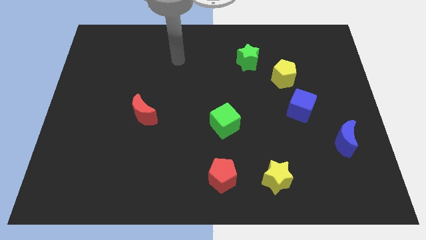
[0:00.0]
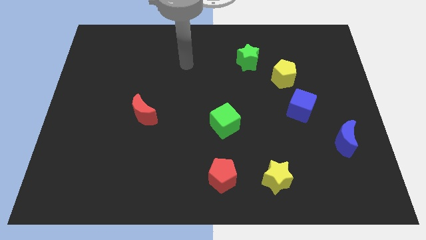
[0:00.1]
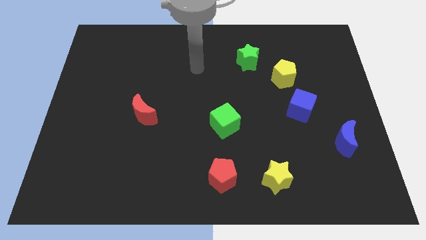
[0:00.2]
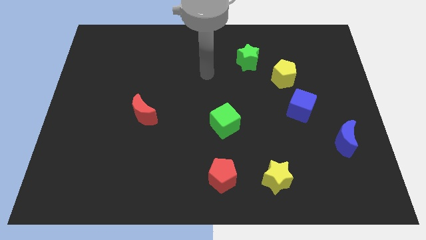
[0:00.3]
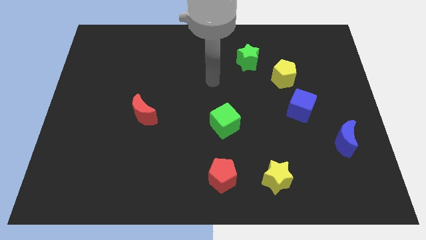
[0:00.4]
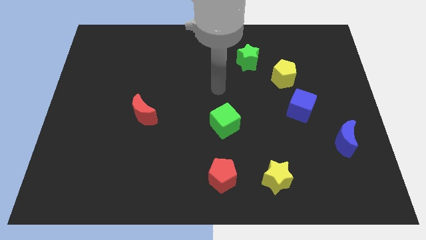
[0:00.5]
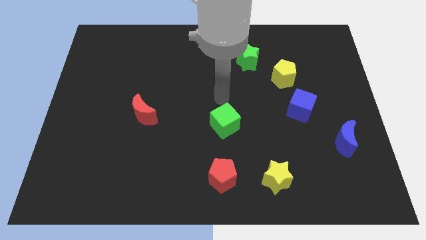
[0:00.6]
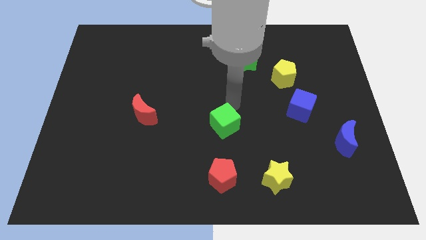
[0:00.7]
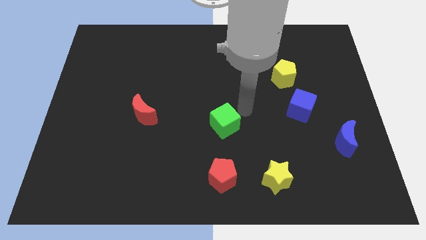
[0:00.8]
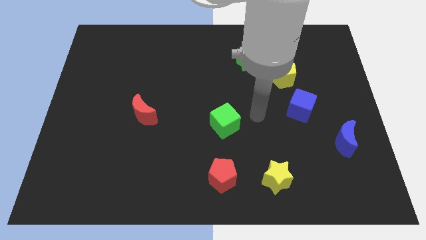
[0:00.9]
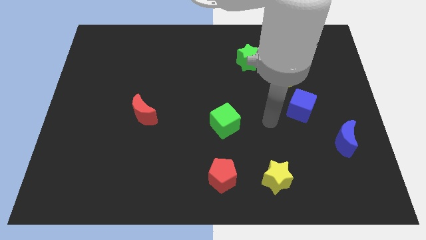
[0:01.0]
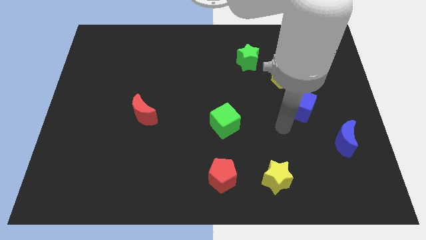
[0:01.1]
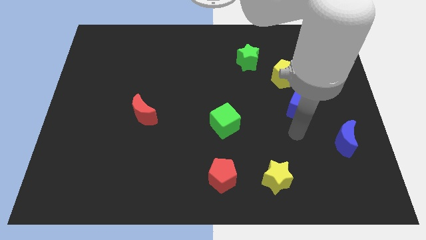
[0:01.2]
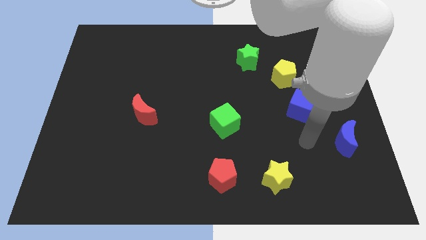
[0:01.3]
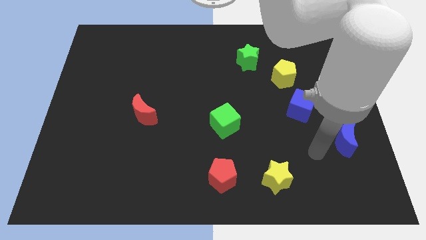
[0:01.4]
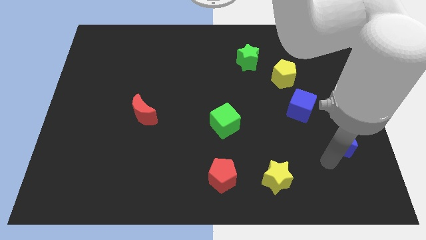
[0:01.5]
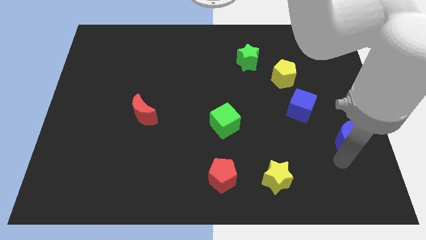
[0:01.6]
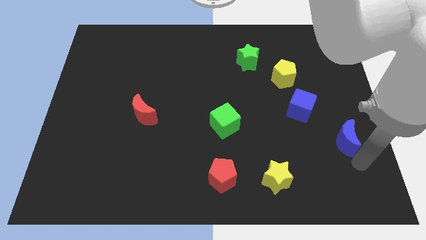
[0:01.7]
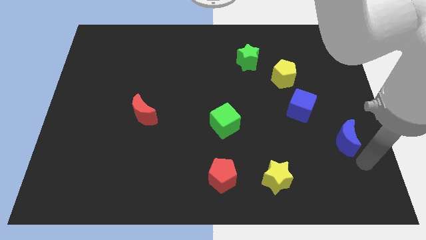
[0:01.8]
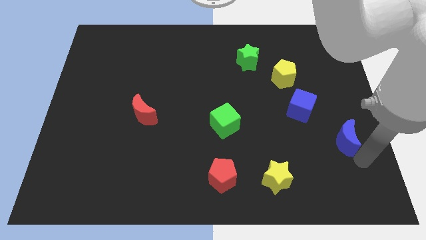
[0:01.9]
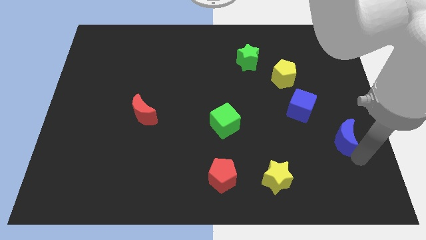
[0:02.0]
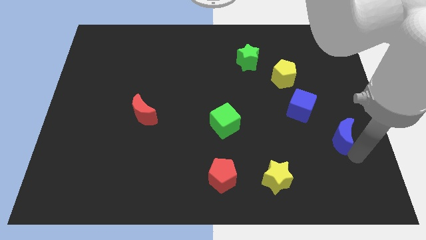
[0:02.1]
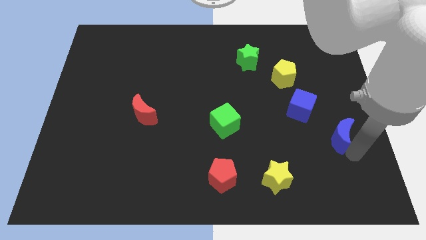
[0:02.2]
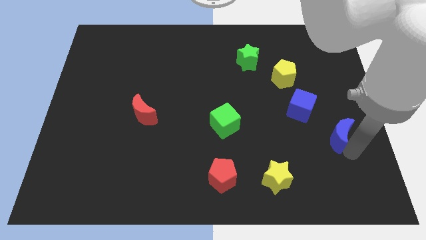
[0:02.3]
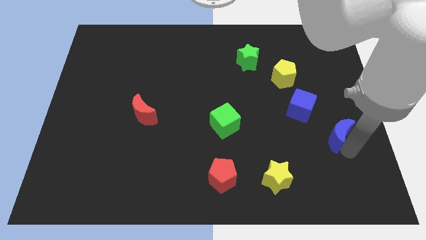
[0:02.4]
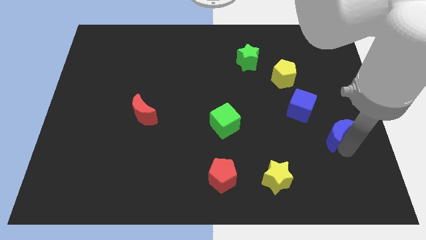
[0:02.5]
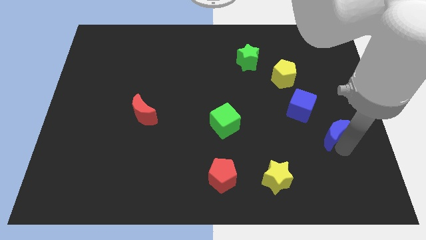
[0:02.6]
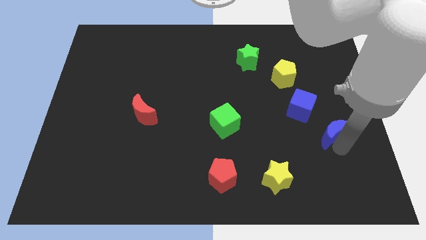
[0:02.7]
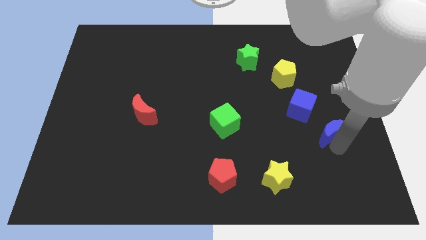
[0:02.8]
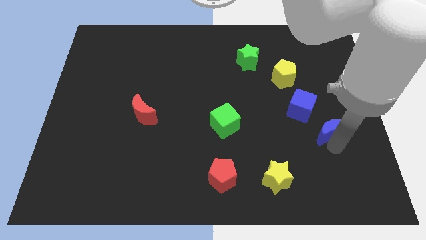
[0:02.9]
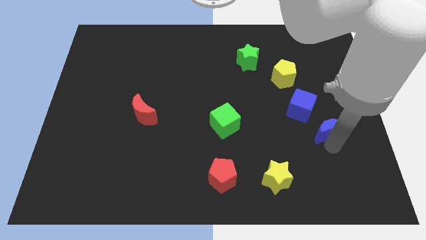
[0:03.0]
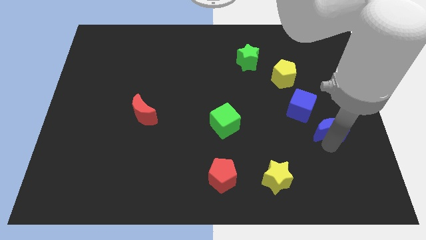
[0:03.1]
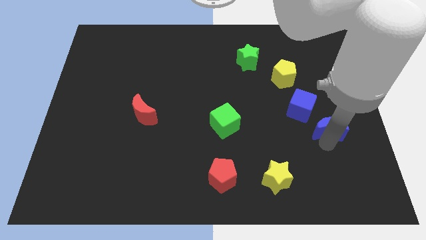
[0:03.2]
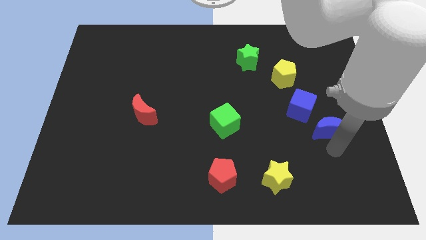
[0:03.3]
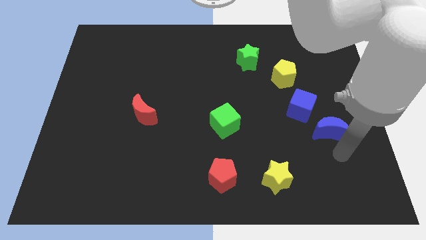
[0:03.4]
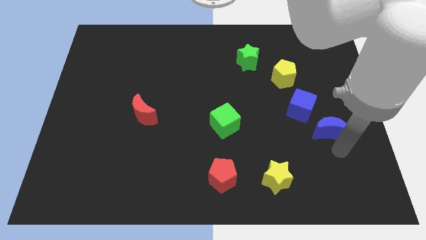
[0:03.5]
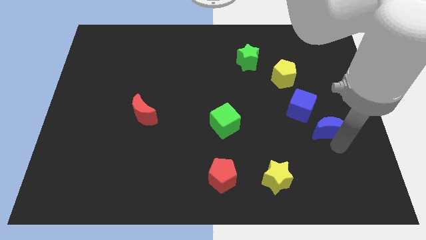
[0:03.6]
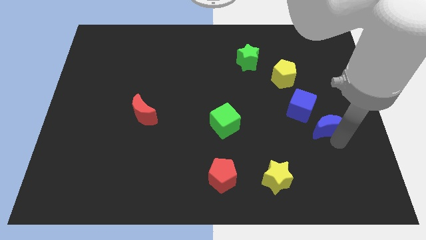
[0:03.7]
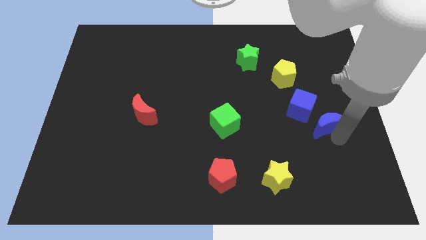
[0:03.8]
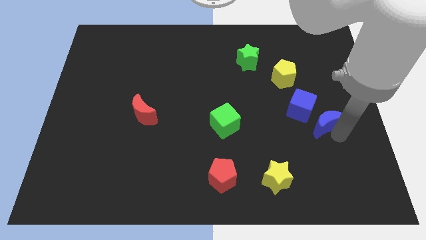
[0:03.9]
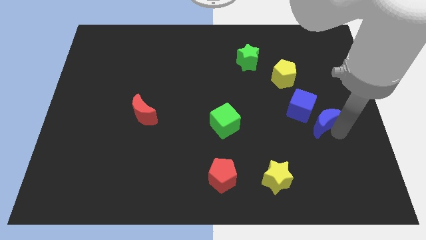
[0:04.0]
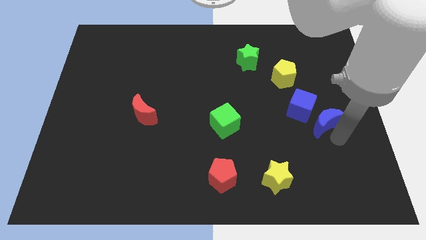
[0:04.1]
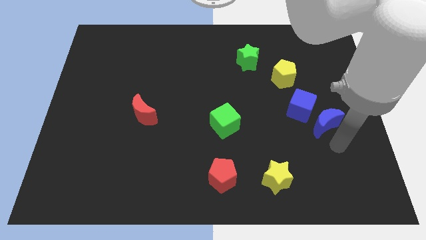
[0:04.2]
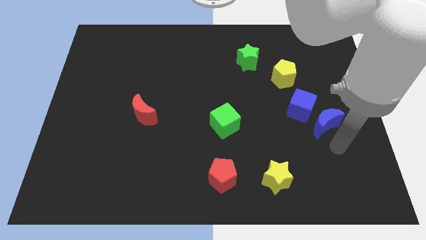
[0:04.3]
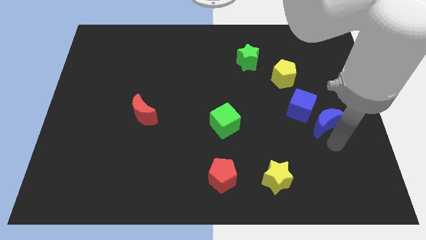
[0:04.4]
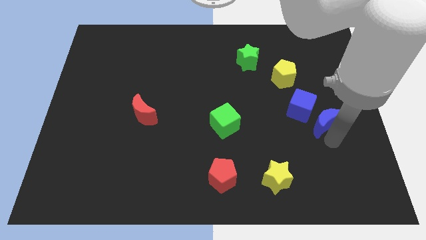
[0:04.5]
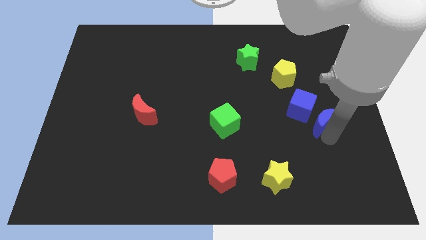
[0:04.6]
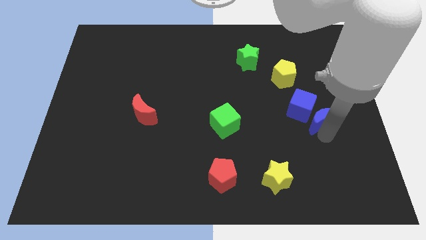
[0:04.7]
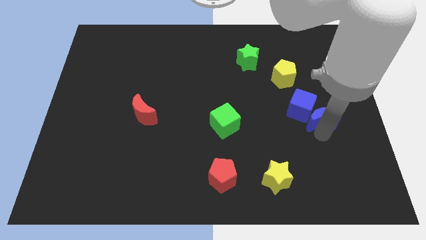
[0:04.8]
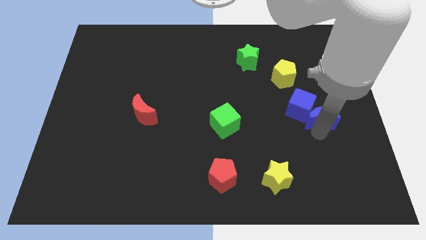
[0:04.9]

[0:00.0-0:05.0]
slide the blue moon up and then left slightly

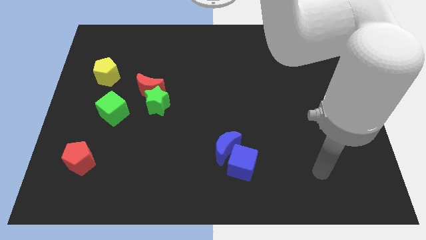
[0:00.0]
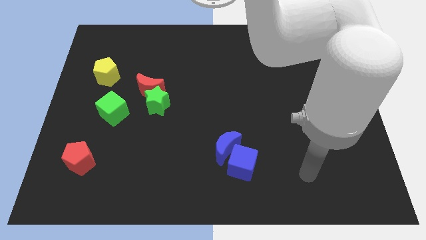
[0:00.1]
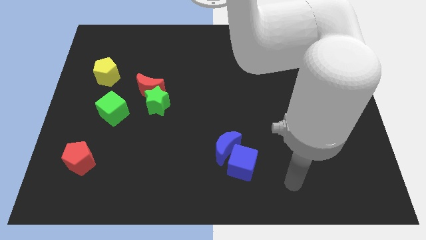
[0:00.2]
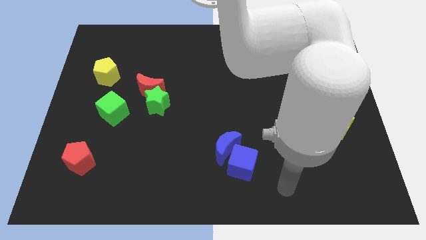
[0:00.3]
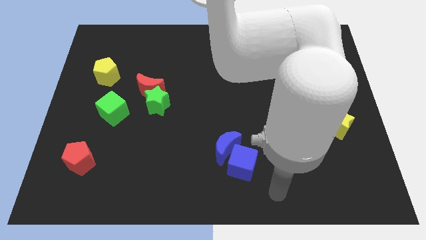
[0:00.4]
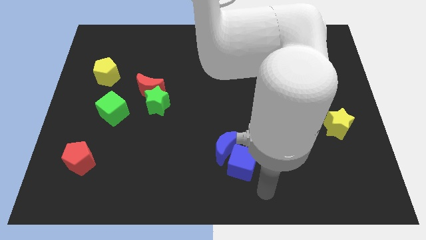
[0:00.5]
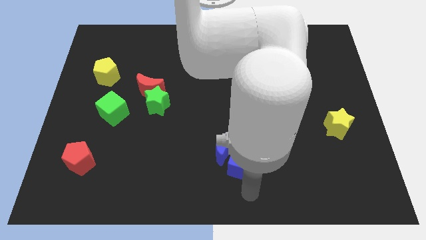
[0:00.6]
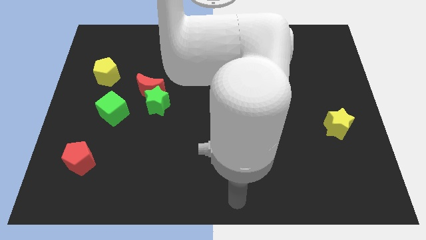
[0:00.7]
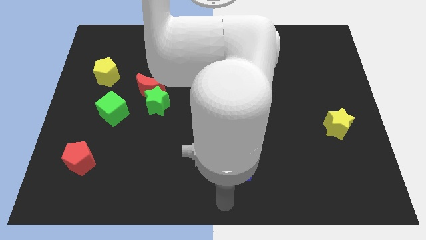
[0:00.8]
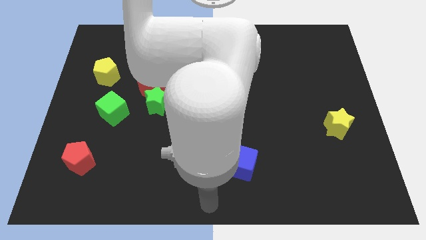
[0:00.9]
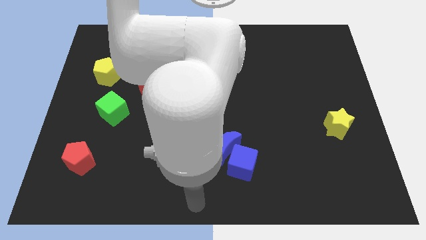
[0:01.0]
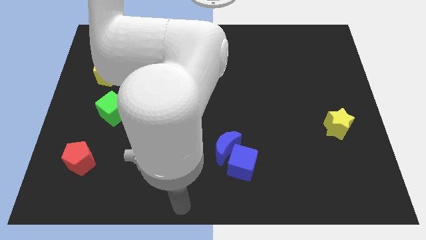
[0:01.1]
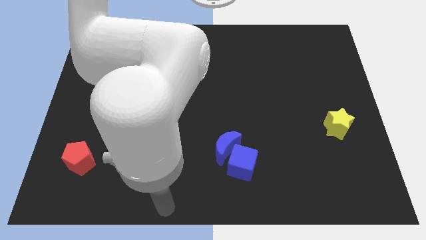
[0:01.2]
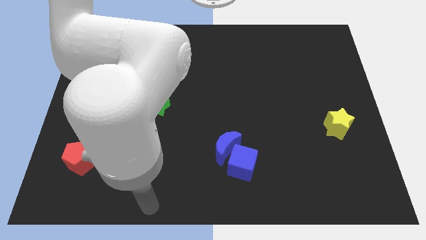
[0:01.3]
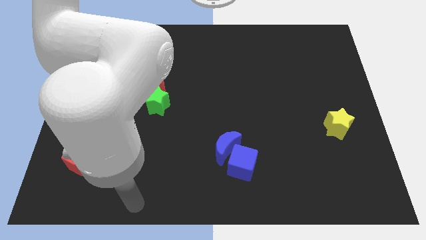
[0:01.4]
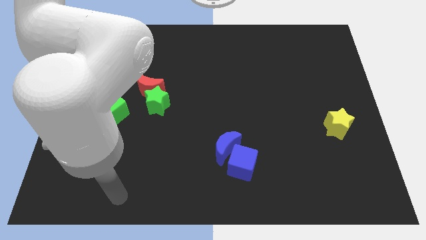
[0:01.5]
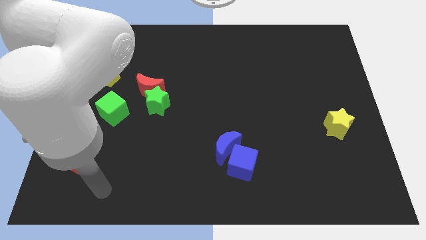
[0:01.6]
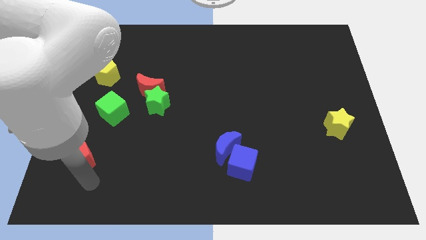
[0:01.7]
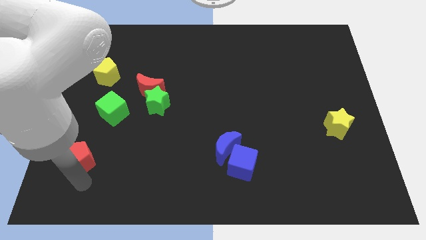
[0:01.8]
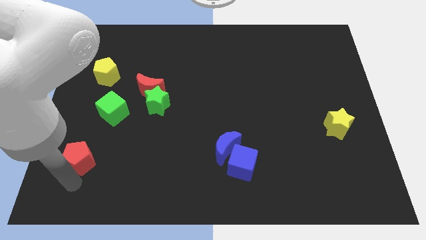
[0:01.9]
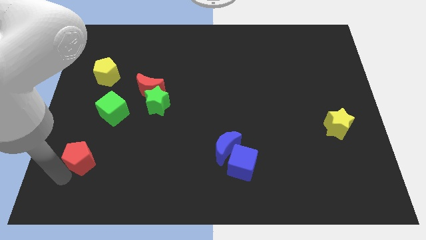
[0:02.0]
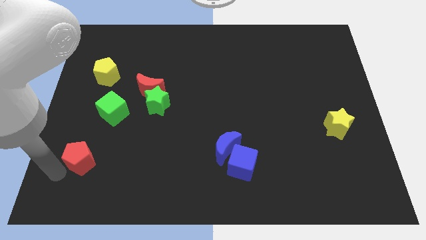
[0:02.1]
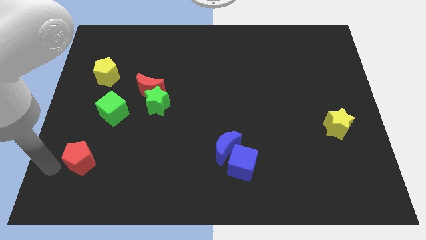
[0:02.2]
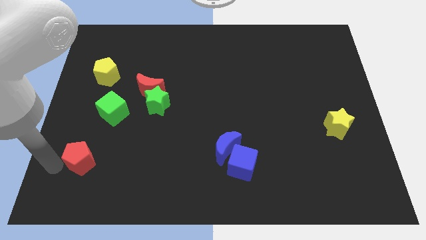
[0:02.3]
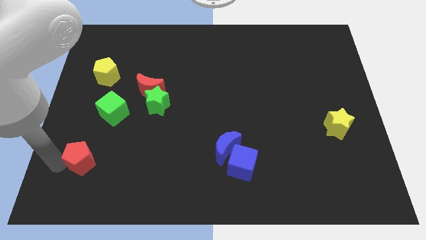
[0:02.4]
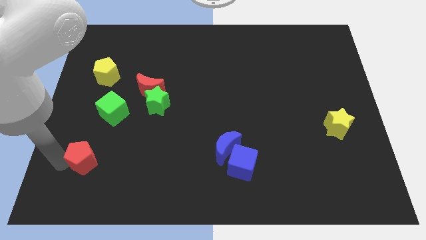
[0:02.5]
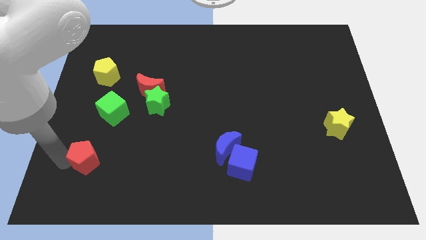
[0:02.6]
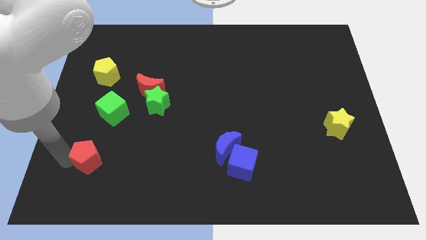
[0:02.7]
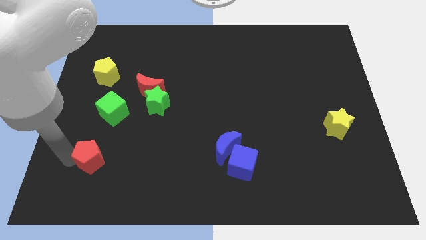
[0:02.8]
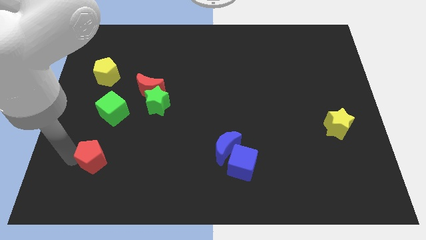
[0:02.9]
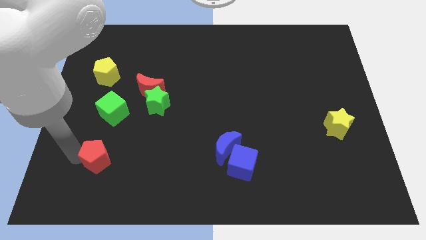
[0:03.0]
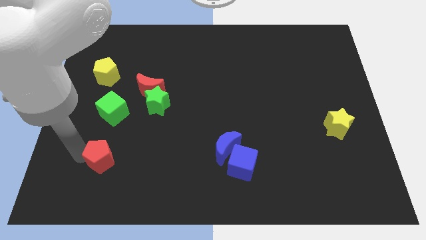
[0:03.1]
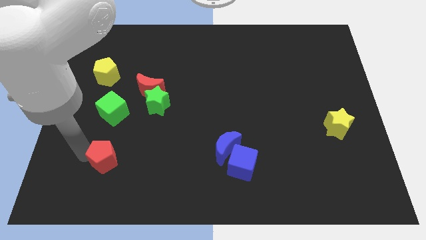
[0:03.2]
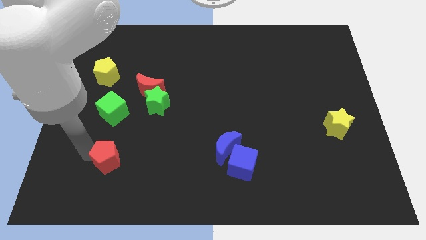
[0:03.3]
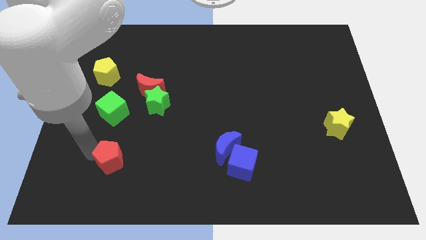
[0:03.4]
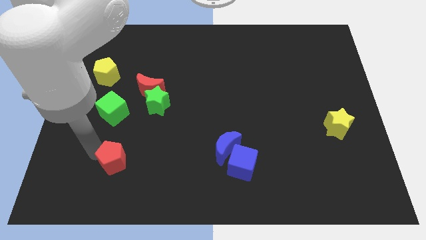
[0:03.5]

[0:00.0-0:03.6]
slightly push the red pentagon right
